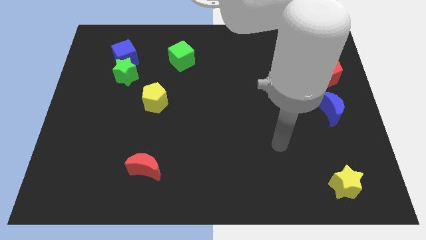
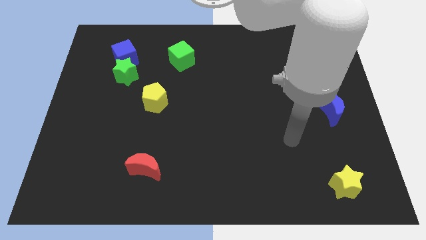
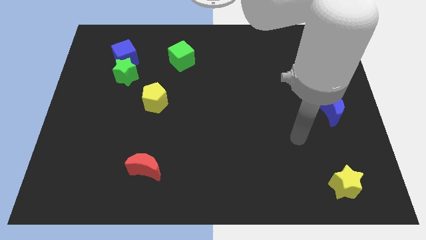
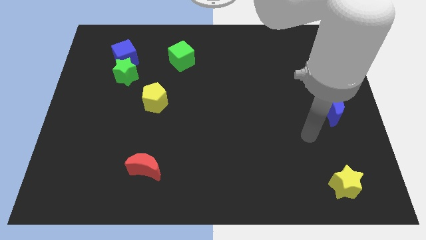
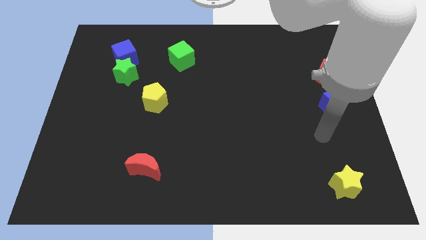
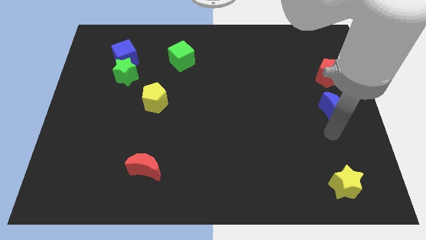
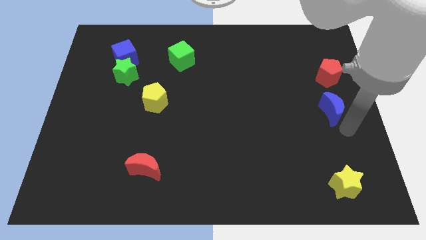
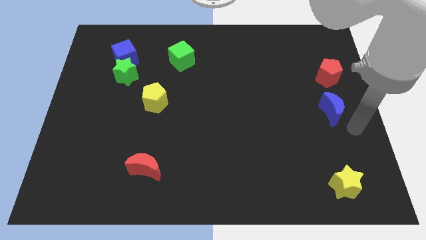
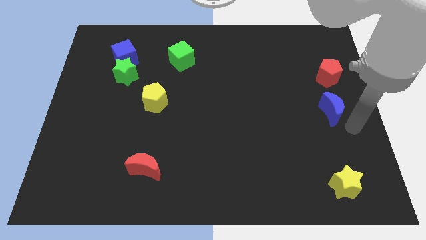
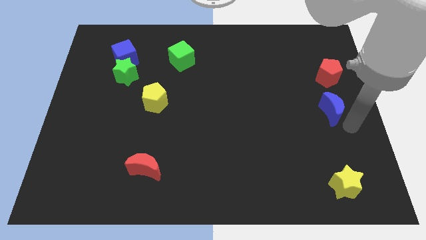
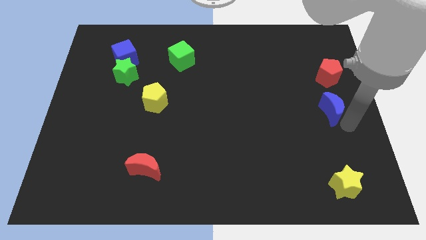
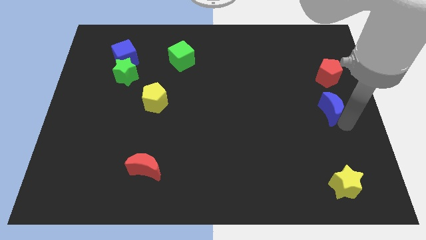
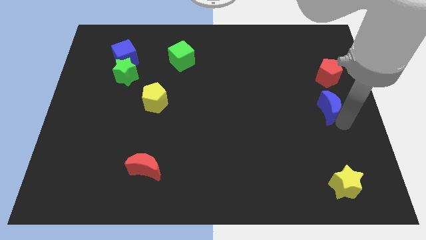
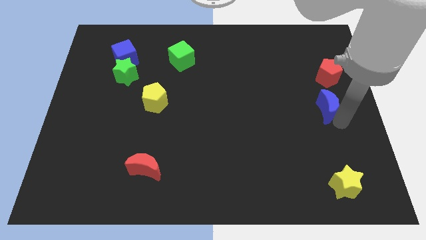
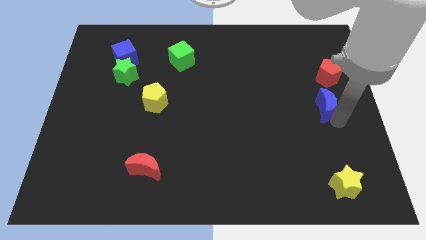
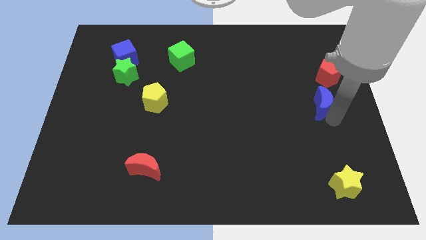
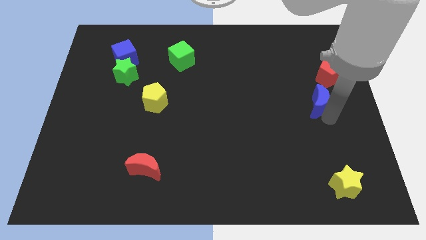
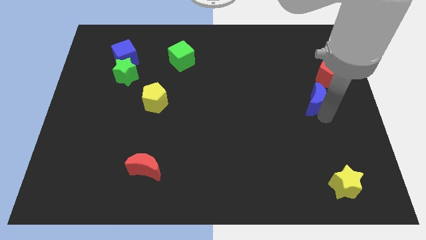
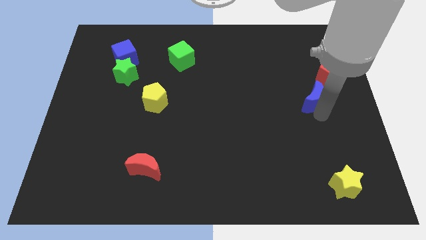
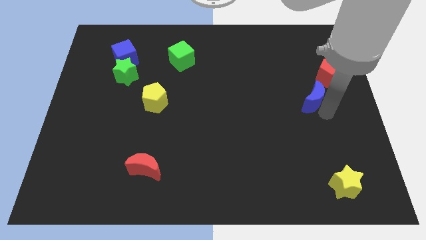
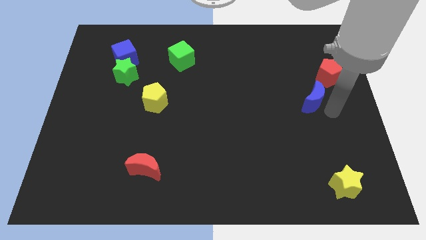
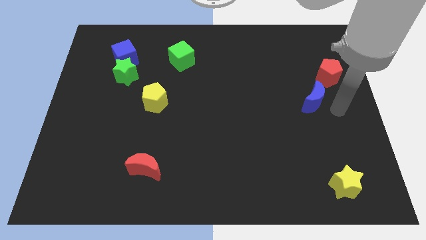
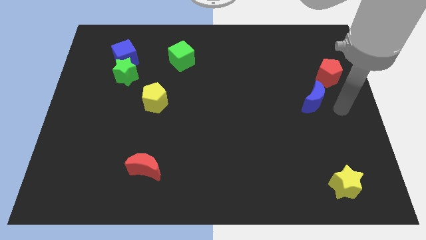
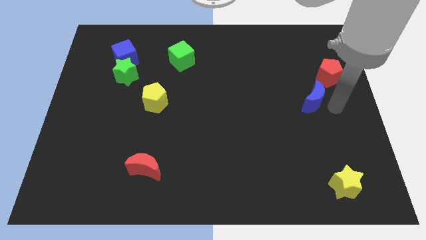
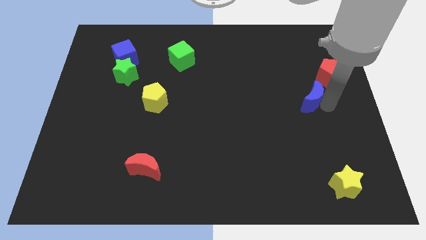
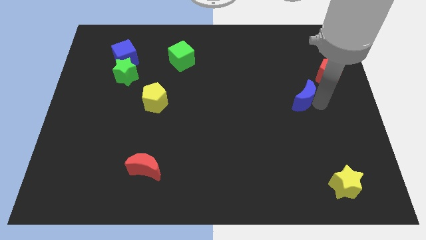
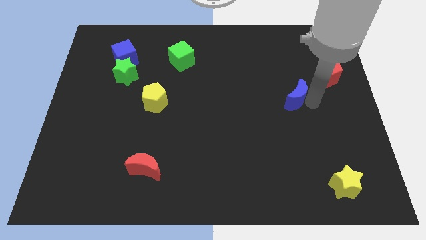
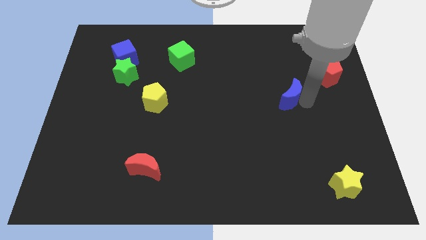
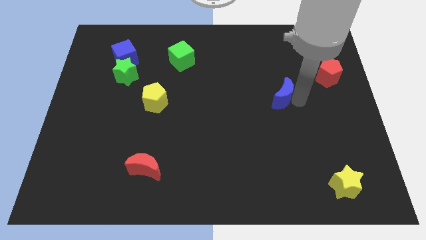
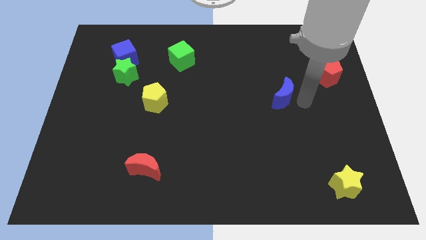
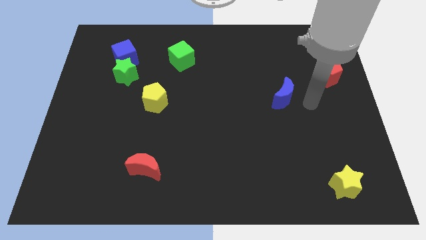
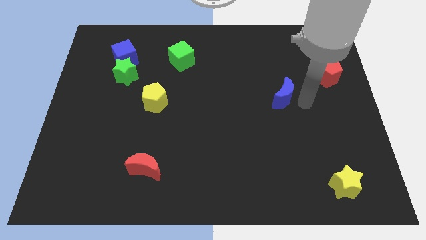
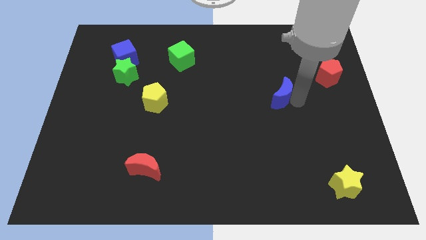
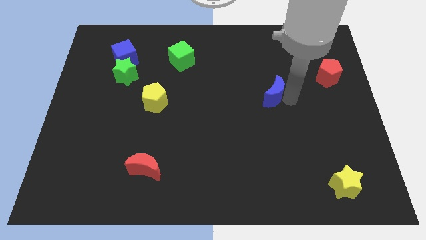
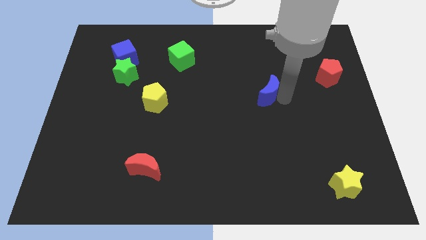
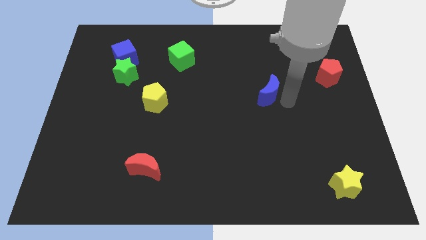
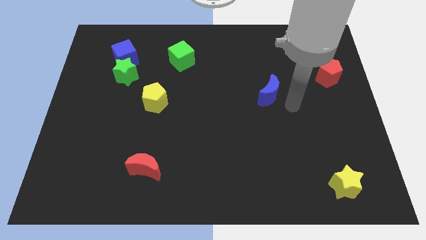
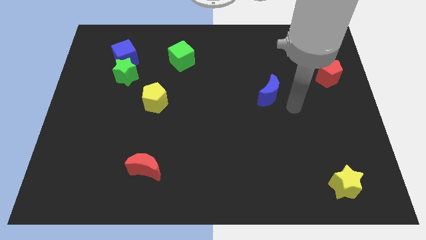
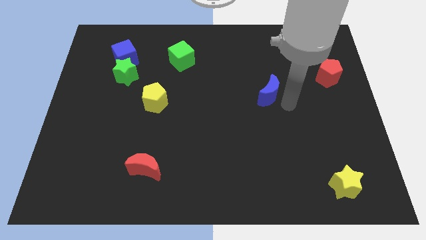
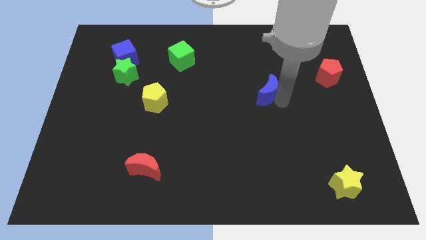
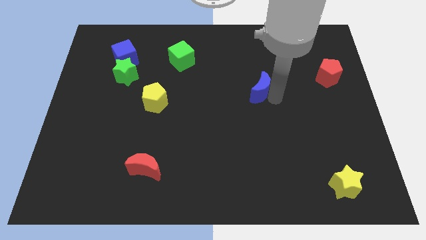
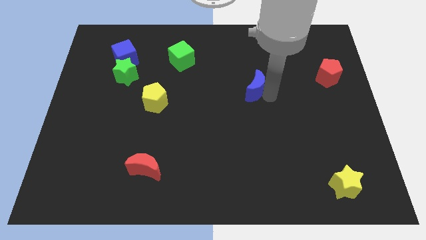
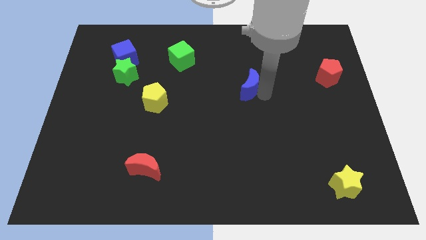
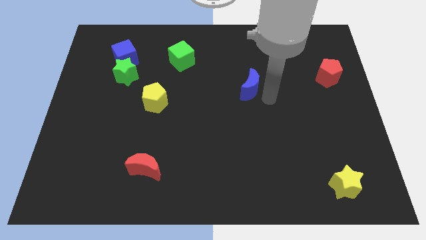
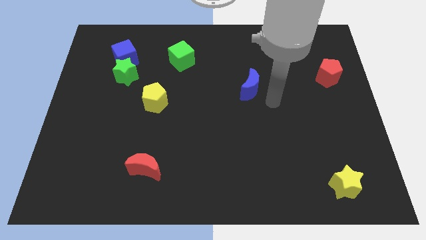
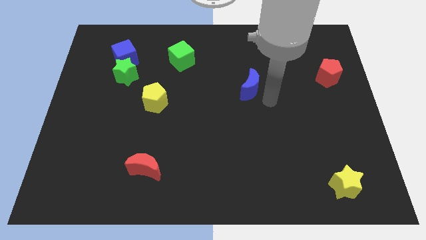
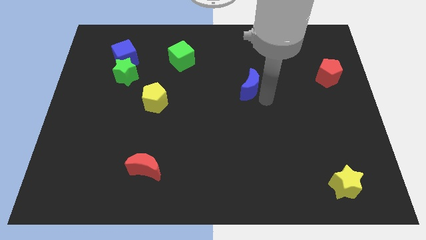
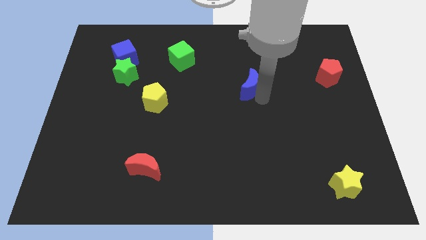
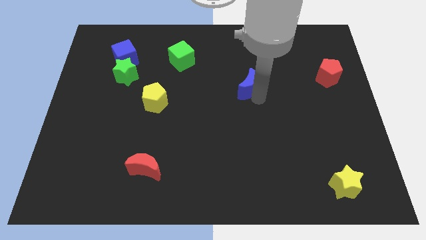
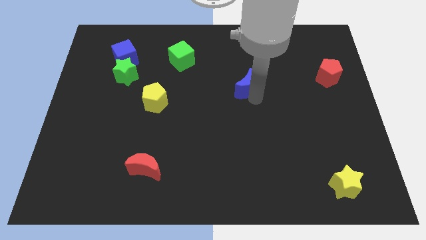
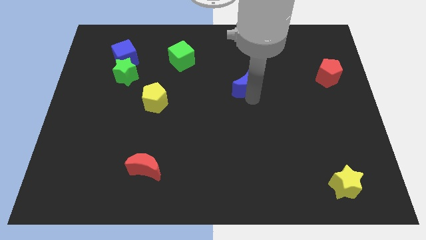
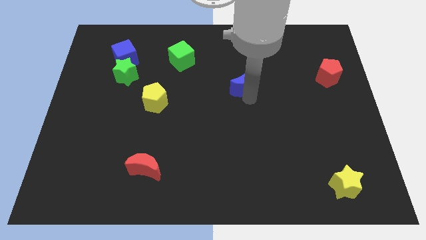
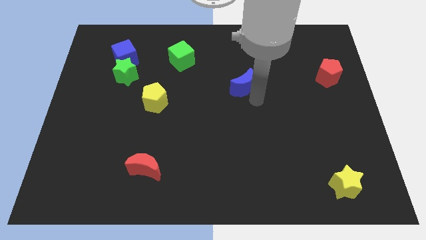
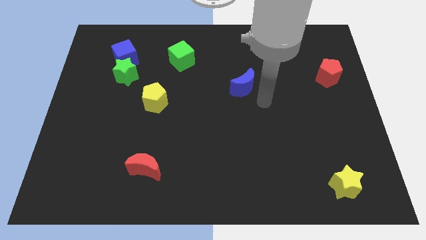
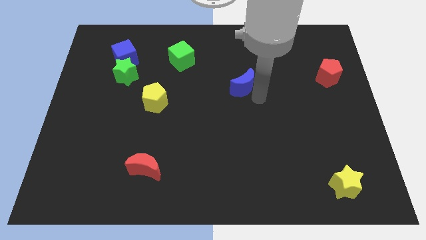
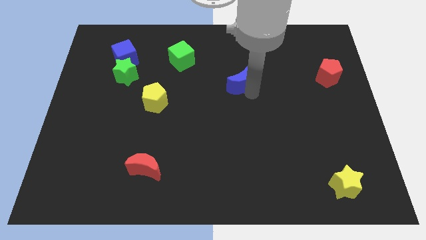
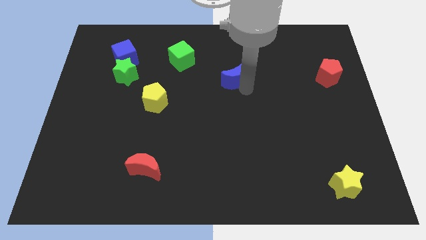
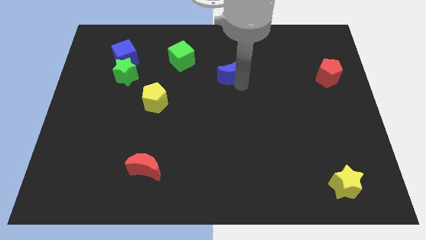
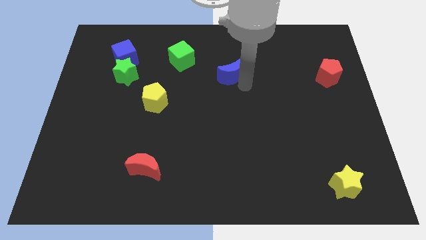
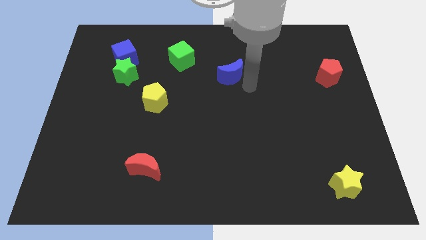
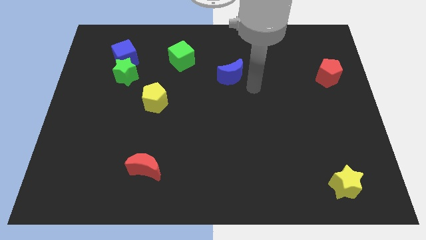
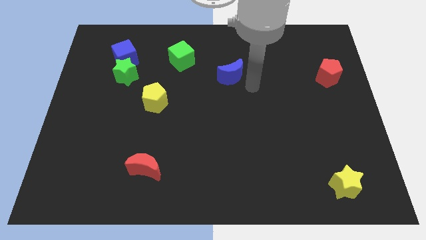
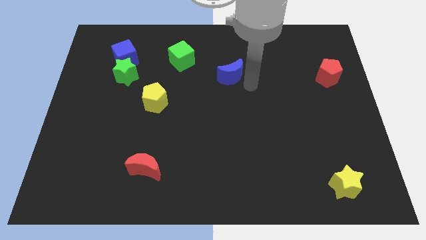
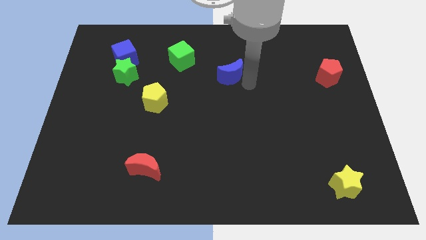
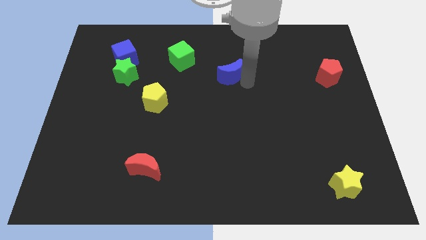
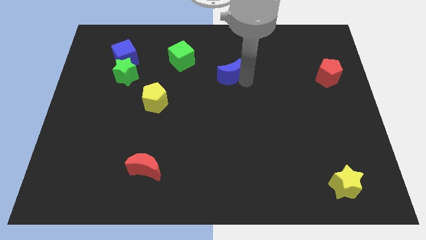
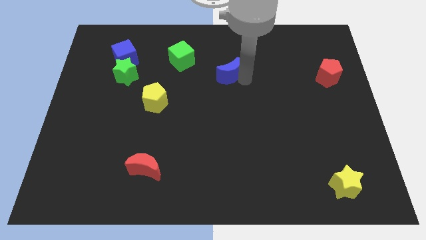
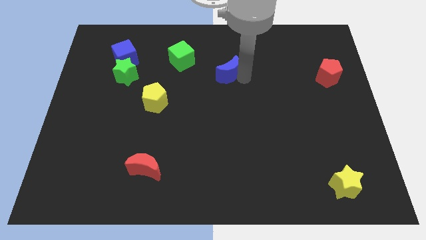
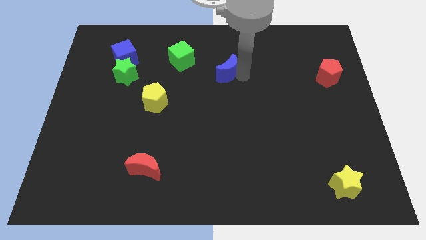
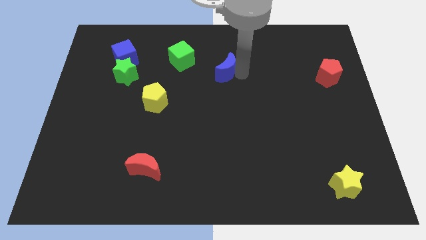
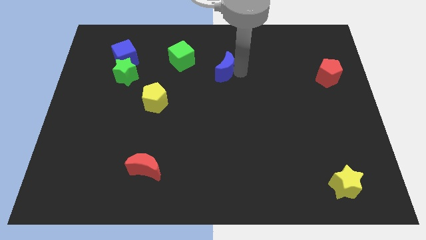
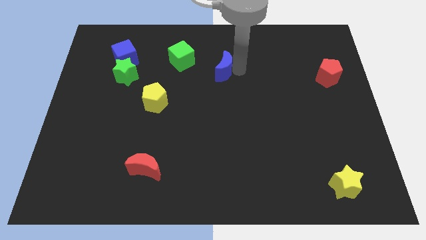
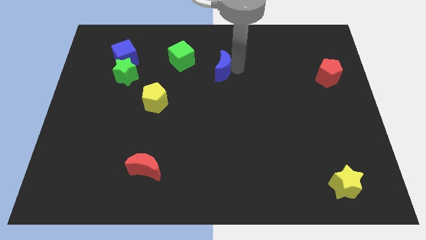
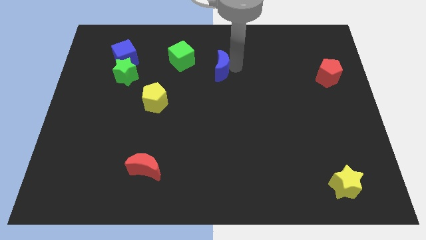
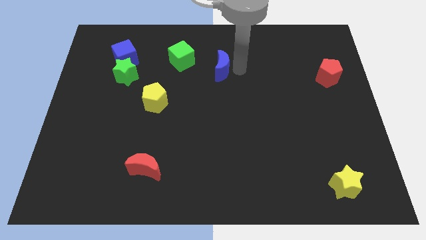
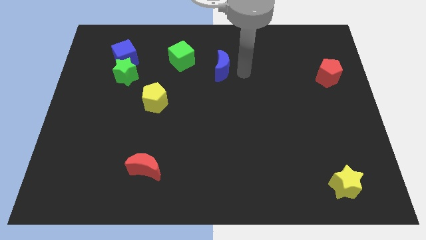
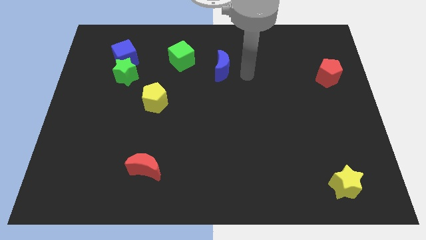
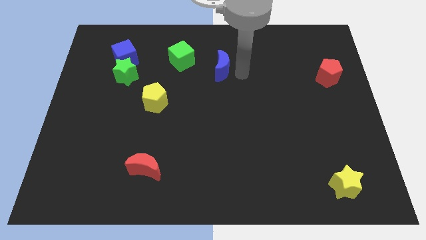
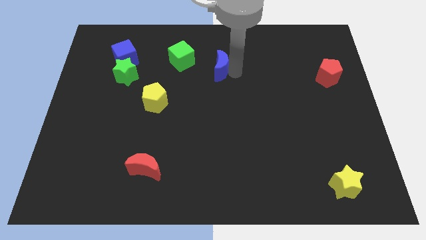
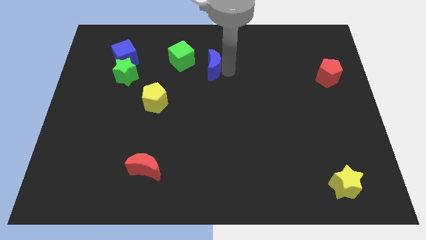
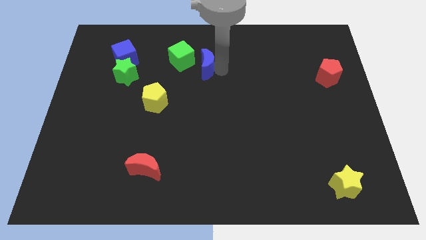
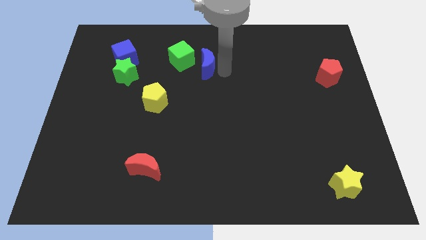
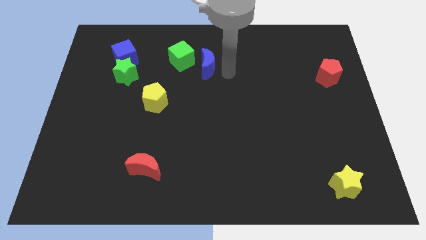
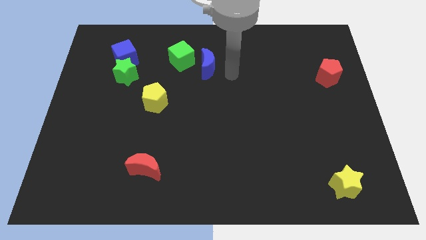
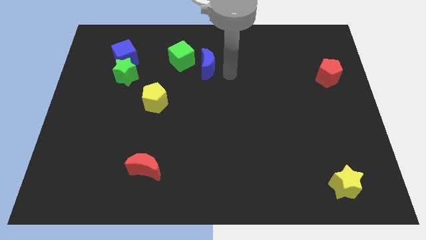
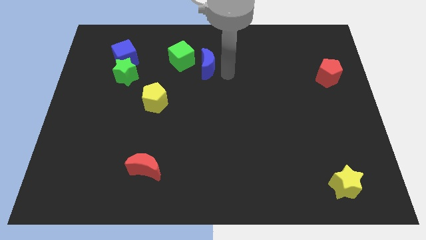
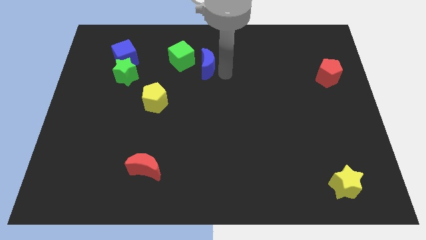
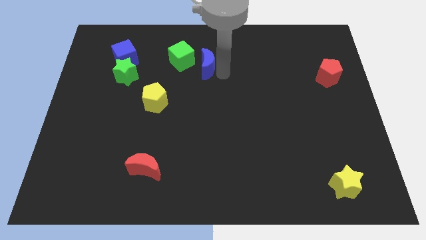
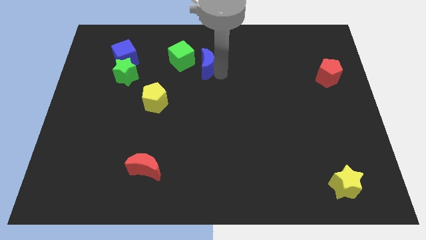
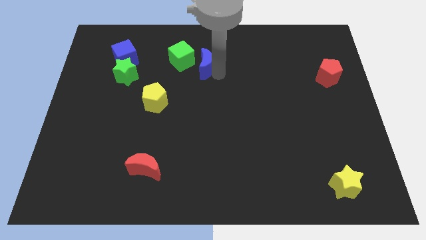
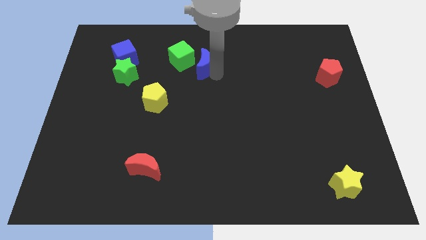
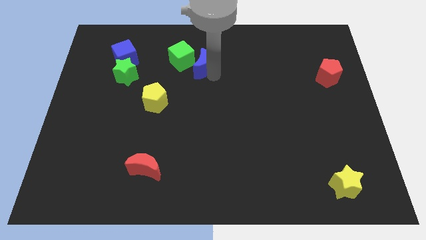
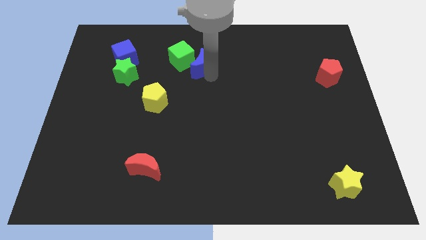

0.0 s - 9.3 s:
slide the blue moon close to the green cube
